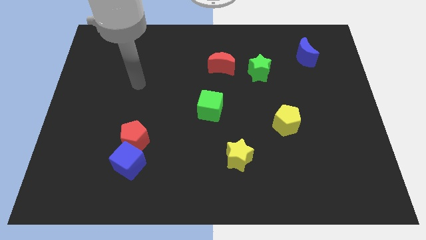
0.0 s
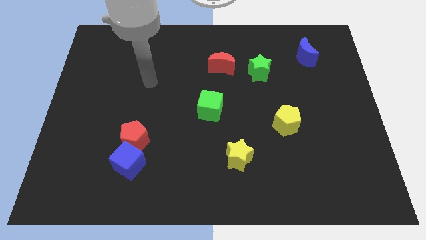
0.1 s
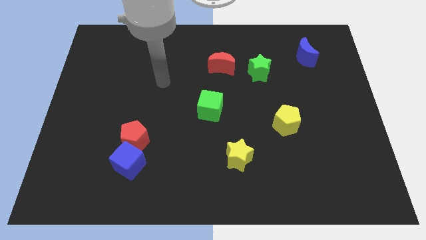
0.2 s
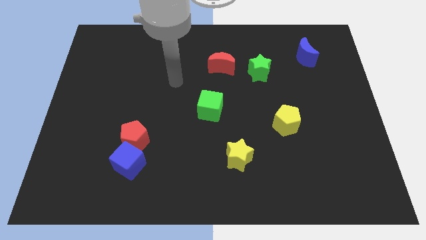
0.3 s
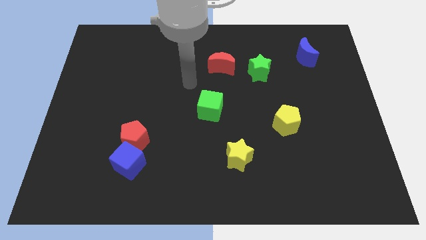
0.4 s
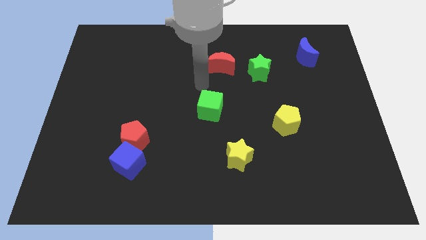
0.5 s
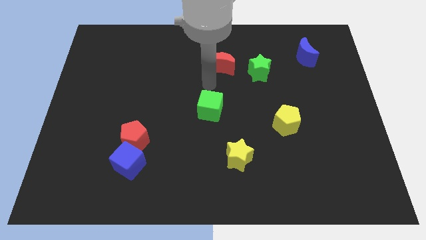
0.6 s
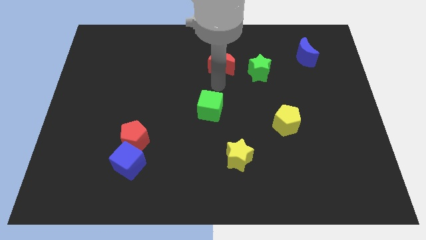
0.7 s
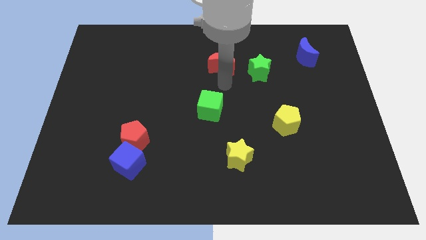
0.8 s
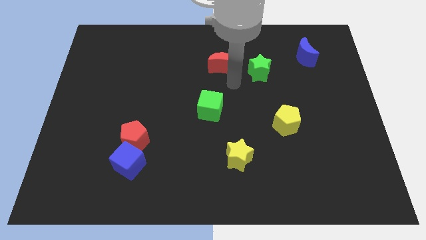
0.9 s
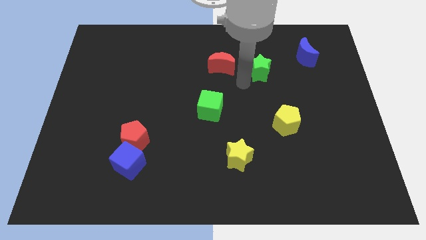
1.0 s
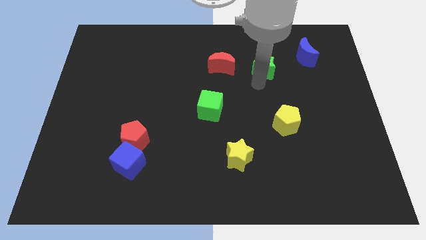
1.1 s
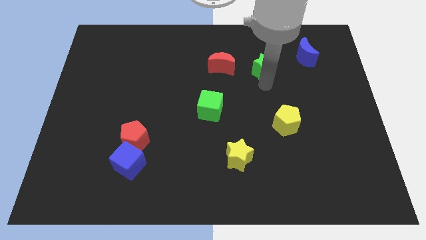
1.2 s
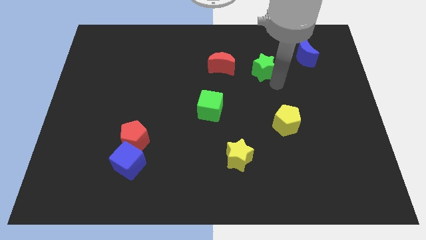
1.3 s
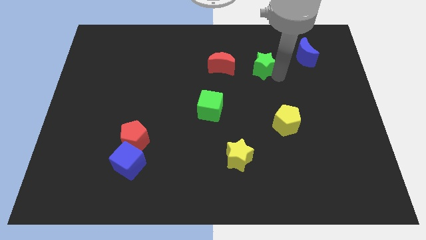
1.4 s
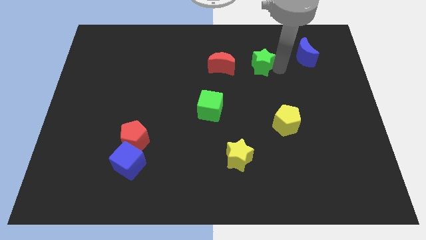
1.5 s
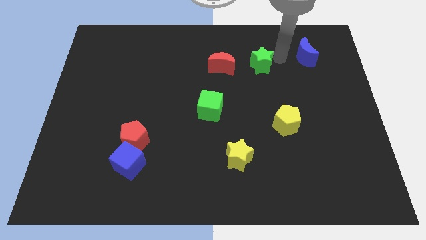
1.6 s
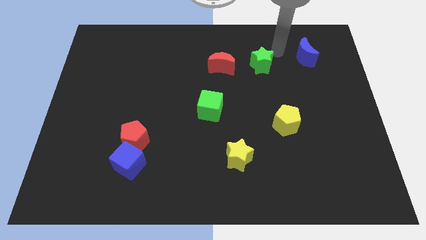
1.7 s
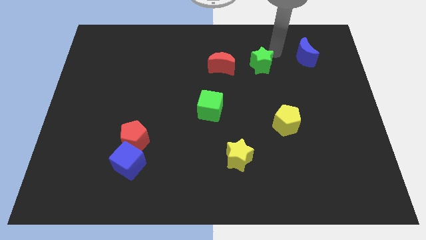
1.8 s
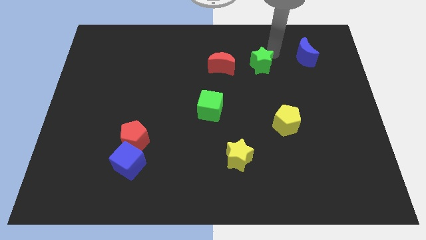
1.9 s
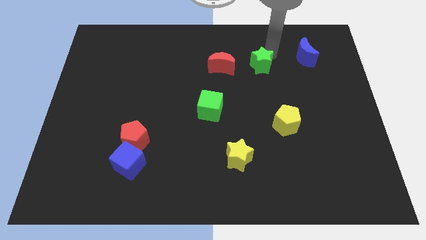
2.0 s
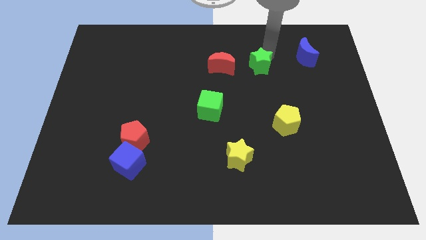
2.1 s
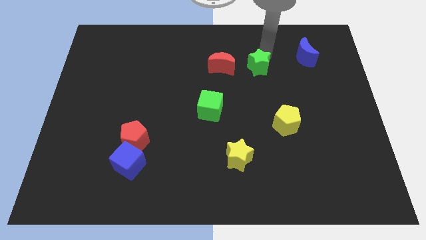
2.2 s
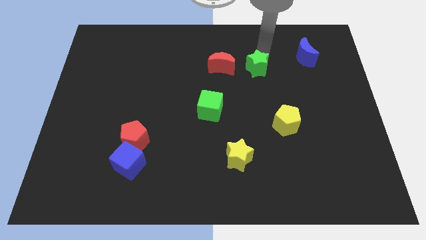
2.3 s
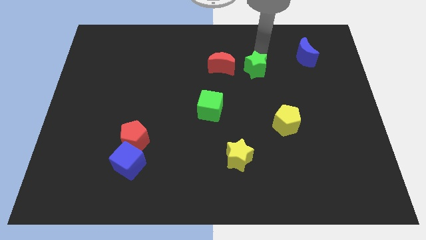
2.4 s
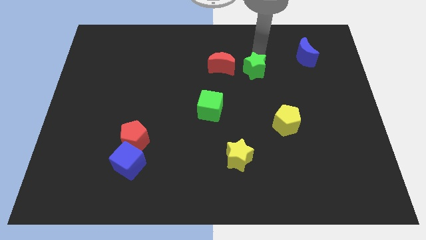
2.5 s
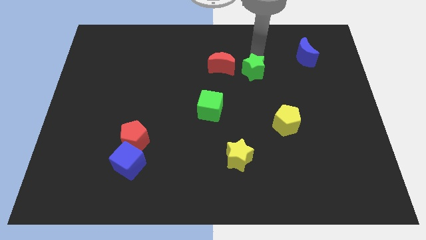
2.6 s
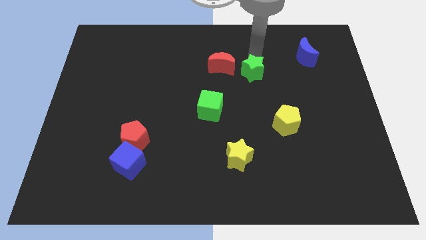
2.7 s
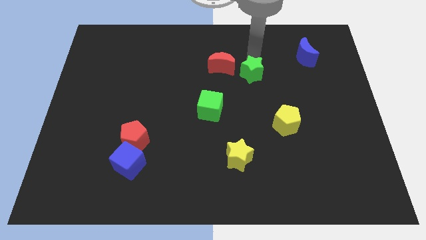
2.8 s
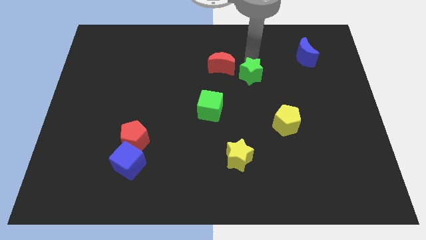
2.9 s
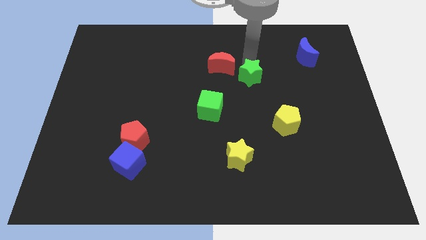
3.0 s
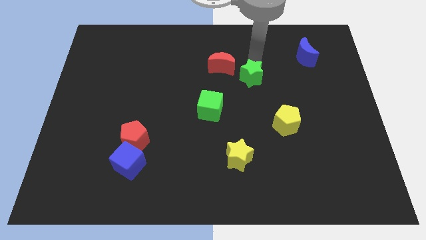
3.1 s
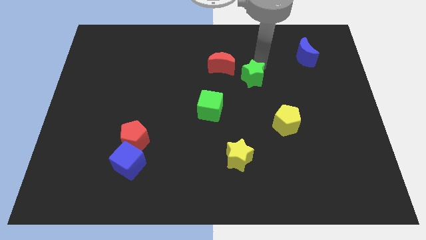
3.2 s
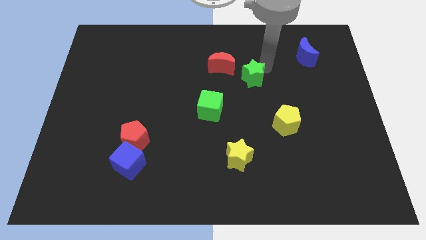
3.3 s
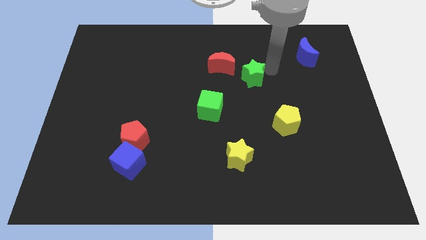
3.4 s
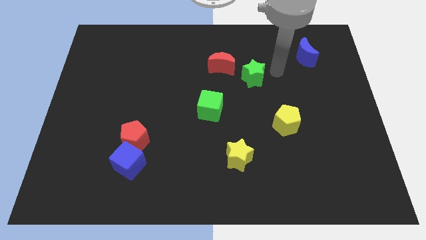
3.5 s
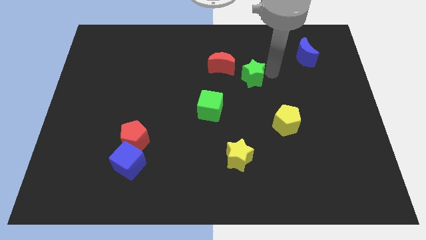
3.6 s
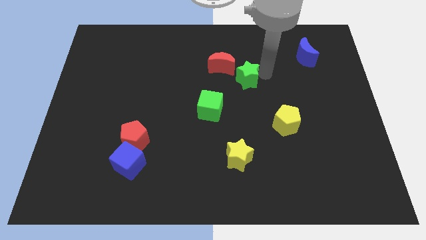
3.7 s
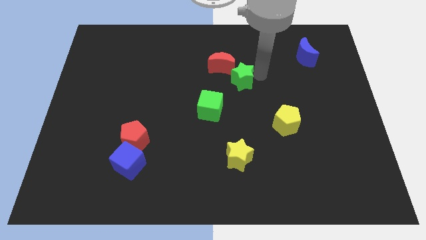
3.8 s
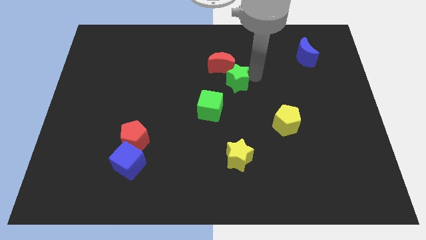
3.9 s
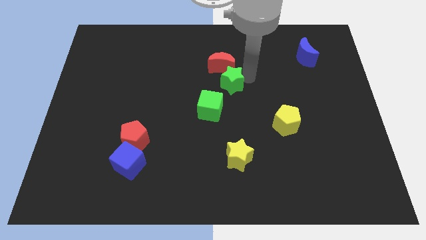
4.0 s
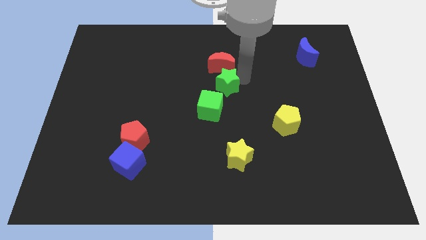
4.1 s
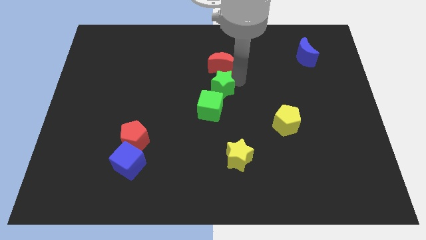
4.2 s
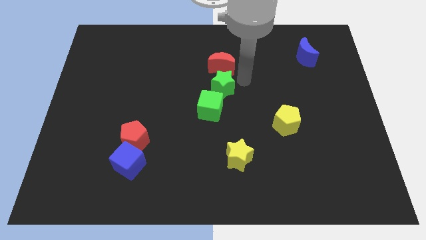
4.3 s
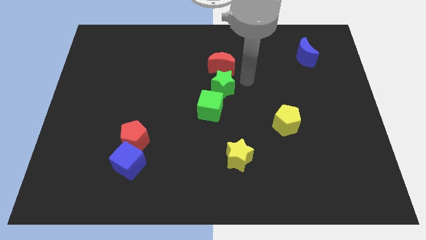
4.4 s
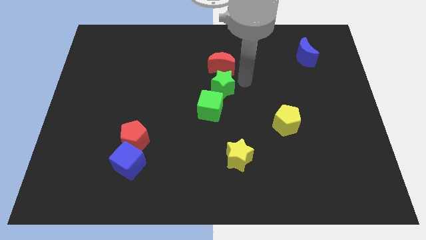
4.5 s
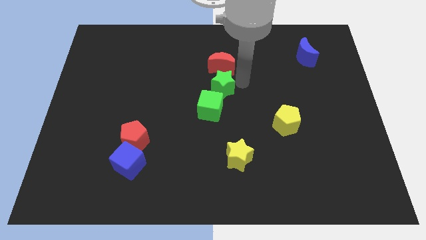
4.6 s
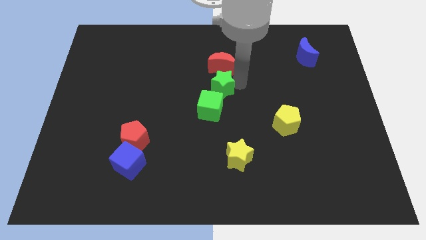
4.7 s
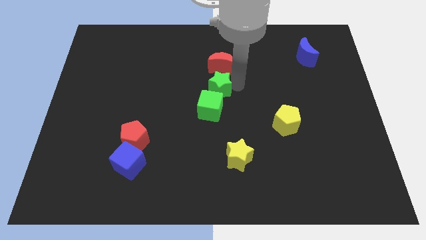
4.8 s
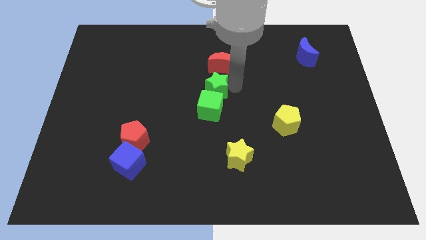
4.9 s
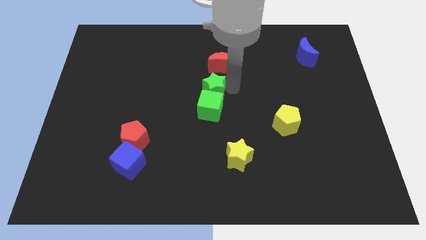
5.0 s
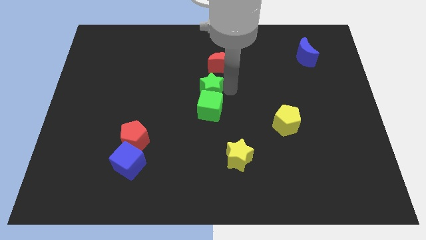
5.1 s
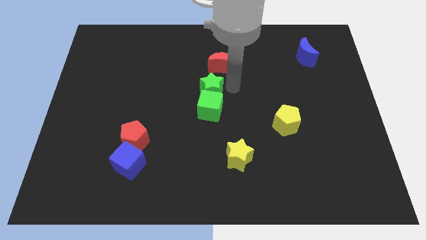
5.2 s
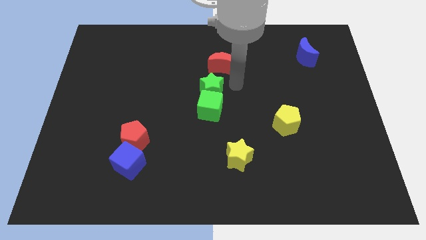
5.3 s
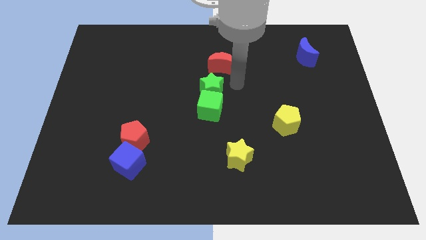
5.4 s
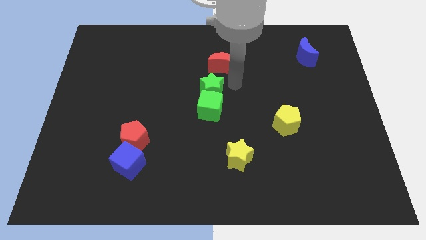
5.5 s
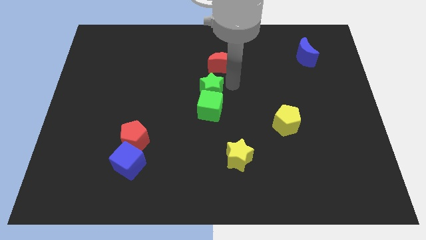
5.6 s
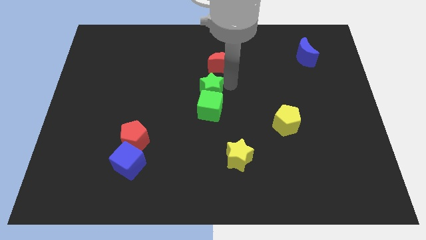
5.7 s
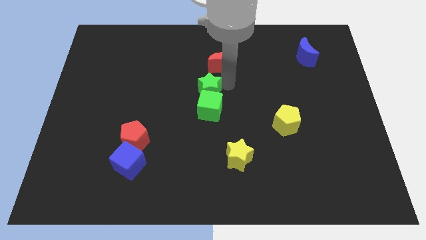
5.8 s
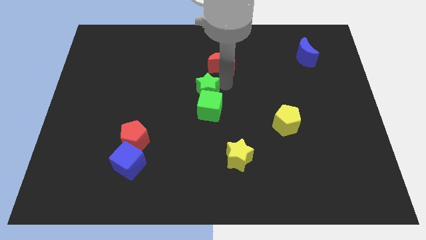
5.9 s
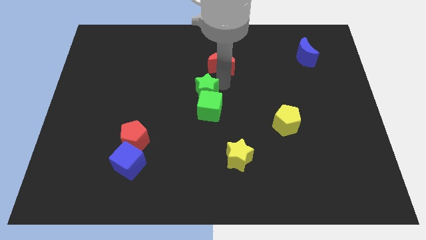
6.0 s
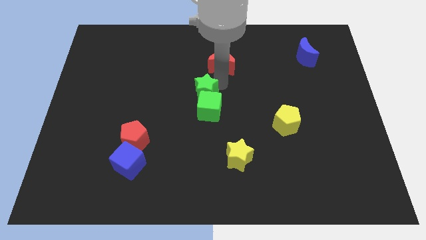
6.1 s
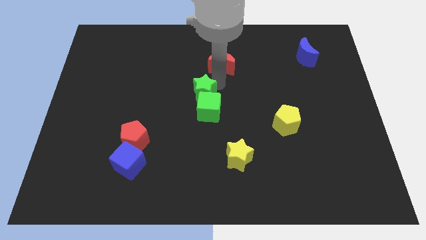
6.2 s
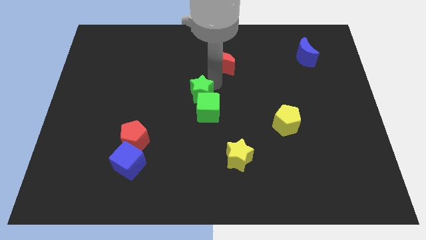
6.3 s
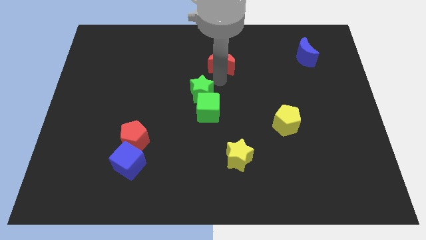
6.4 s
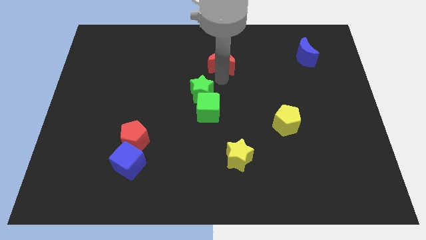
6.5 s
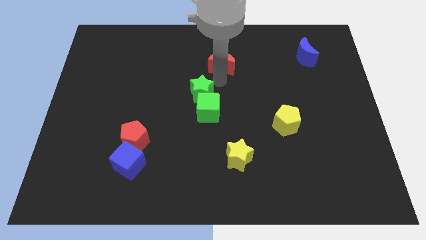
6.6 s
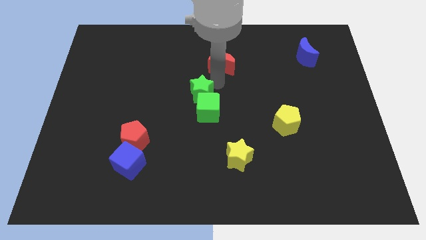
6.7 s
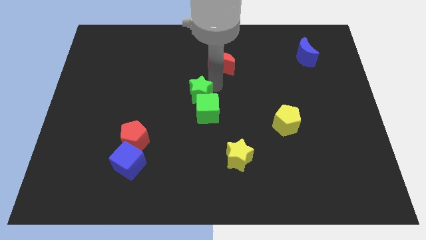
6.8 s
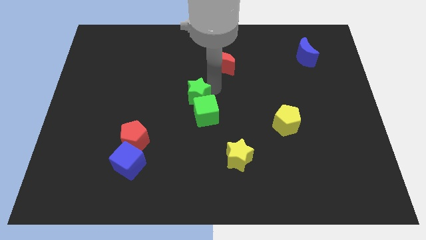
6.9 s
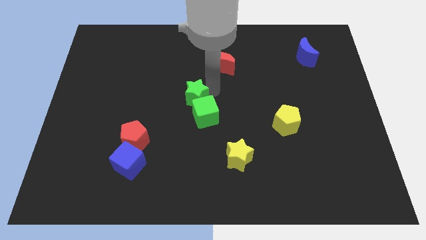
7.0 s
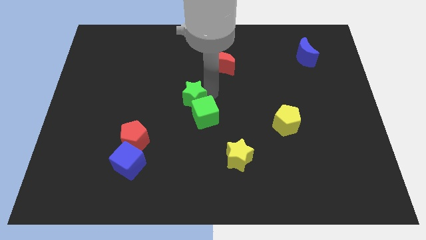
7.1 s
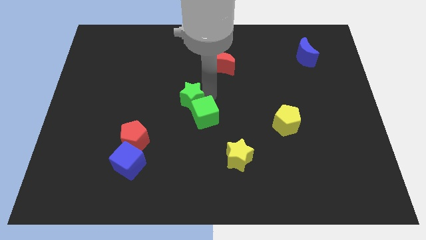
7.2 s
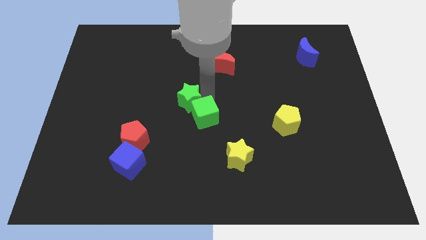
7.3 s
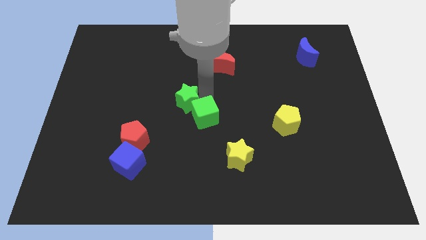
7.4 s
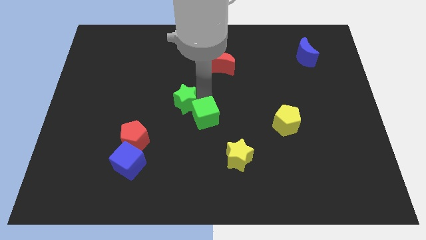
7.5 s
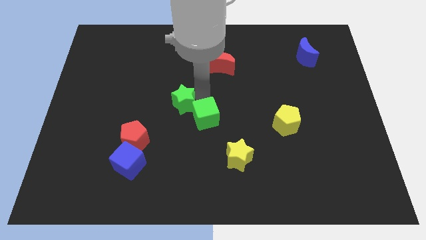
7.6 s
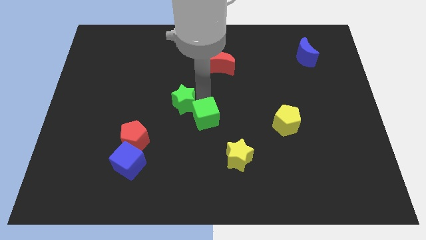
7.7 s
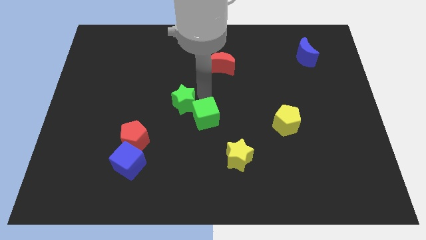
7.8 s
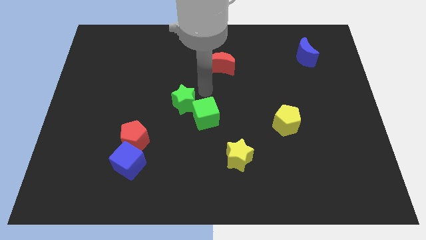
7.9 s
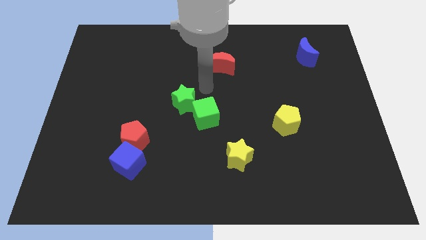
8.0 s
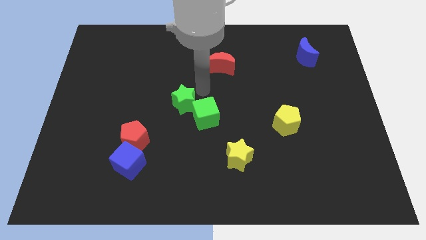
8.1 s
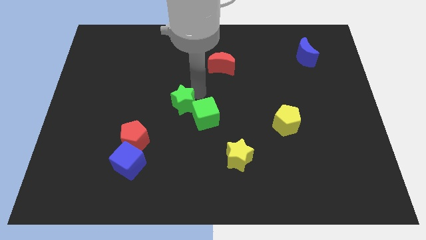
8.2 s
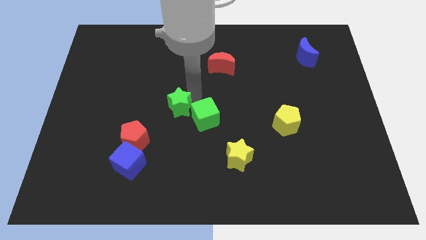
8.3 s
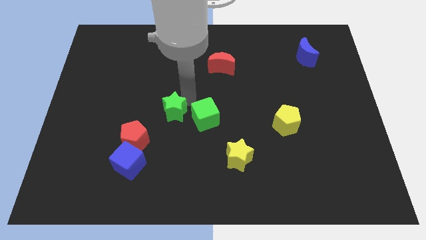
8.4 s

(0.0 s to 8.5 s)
move the green star to the top right side of the red pentagon
